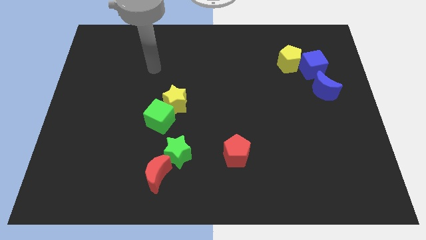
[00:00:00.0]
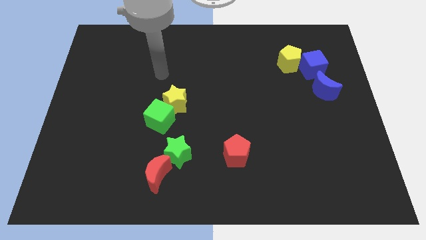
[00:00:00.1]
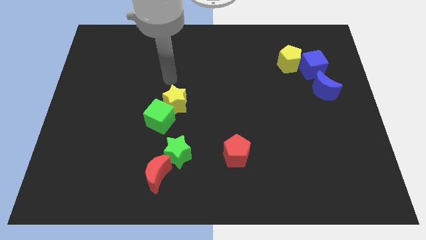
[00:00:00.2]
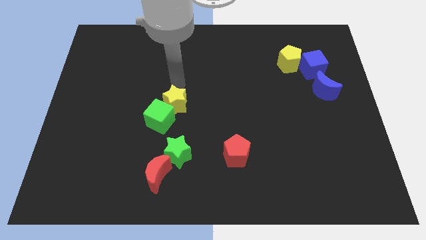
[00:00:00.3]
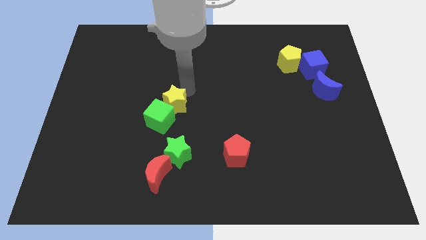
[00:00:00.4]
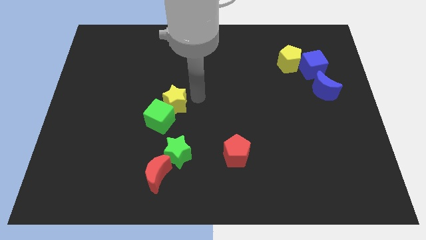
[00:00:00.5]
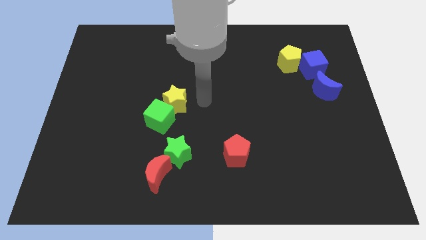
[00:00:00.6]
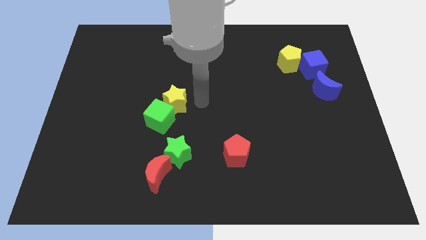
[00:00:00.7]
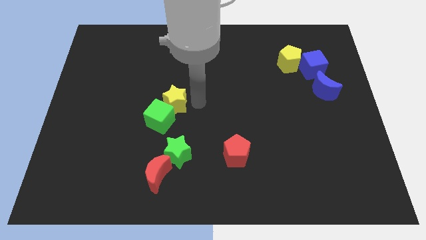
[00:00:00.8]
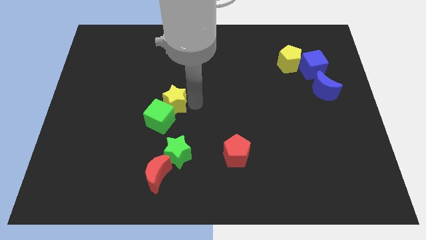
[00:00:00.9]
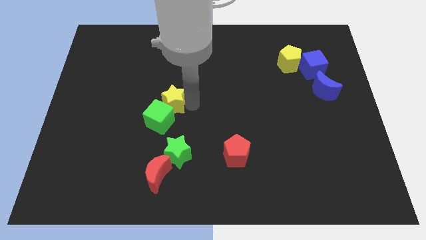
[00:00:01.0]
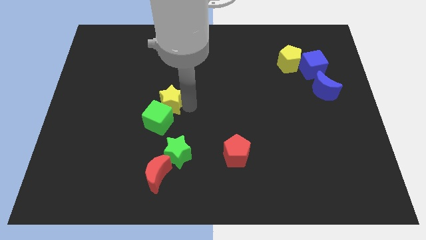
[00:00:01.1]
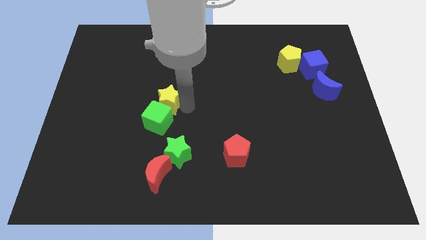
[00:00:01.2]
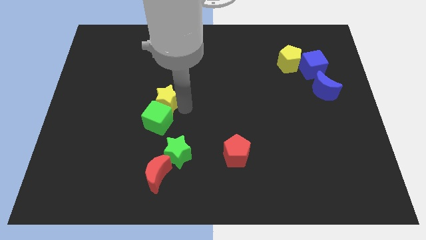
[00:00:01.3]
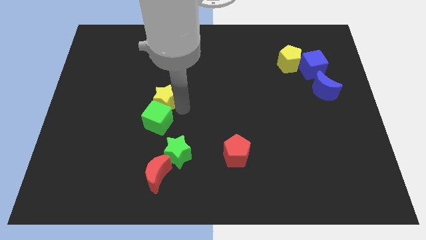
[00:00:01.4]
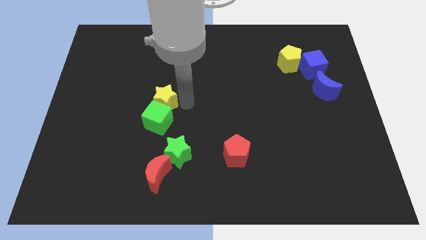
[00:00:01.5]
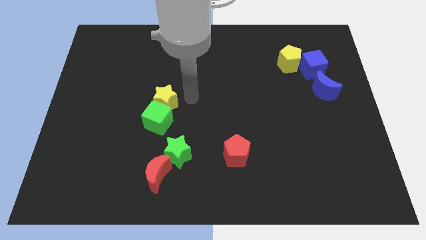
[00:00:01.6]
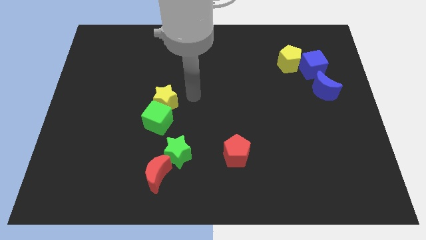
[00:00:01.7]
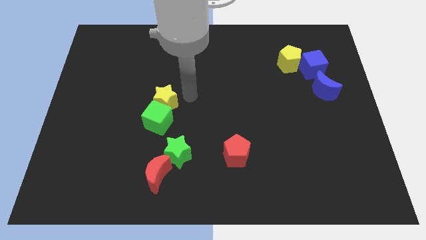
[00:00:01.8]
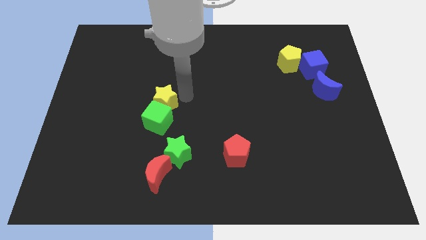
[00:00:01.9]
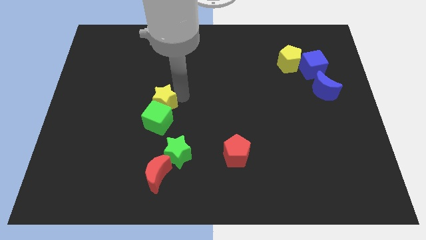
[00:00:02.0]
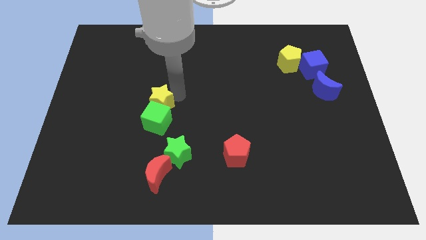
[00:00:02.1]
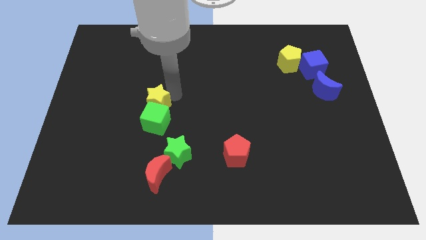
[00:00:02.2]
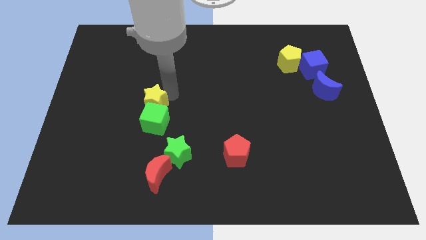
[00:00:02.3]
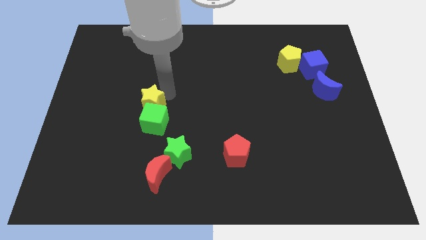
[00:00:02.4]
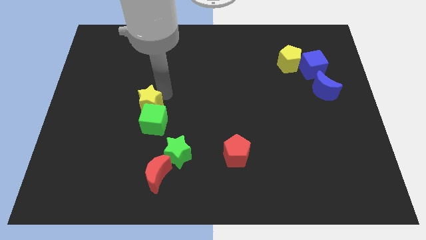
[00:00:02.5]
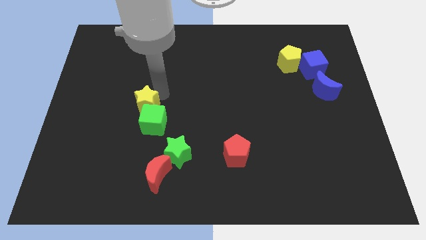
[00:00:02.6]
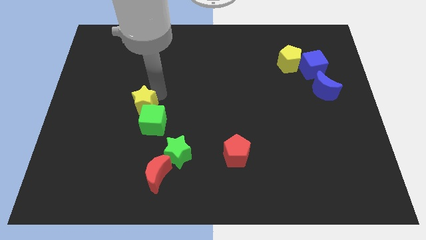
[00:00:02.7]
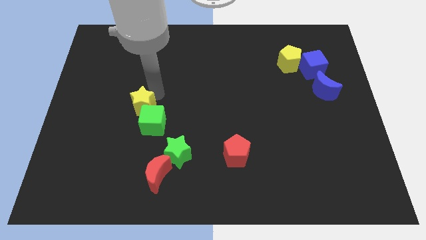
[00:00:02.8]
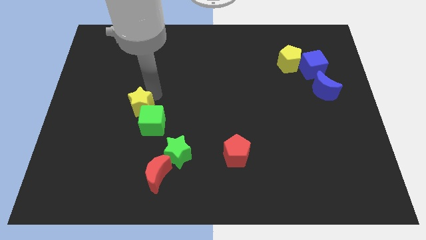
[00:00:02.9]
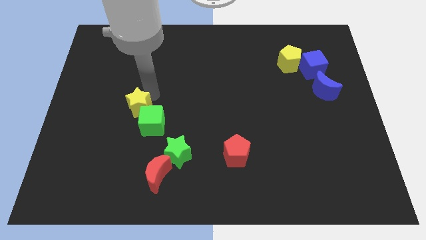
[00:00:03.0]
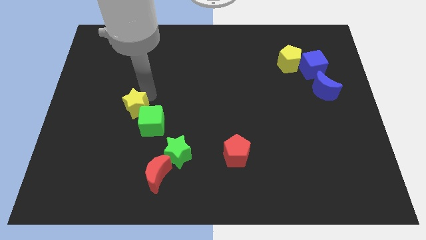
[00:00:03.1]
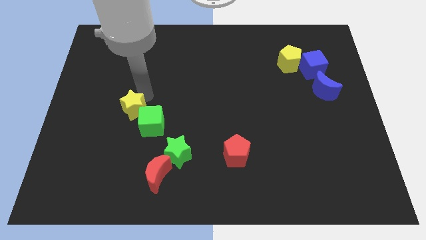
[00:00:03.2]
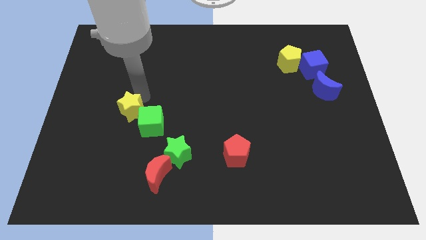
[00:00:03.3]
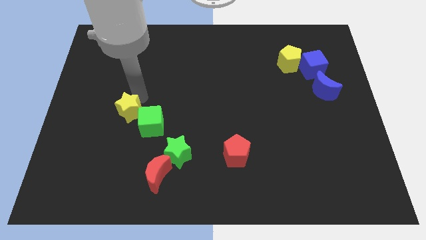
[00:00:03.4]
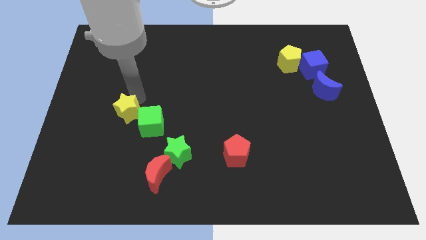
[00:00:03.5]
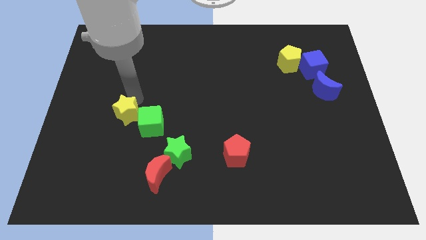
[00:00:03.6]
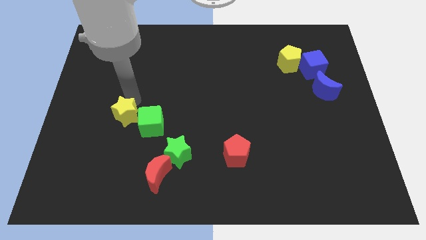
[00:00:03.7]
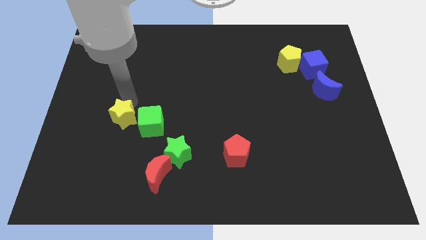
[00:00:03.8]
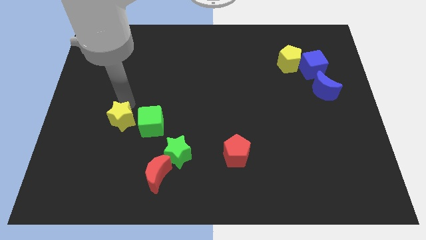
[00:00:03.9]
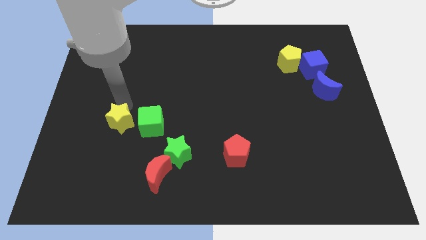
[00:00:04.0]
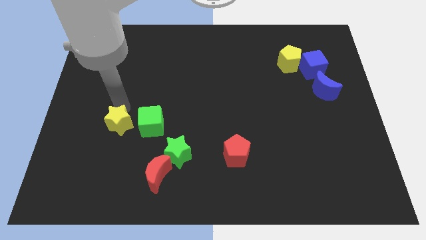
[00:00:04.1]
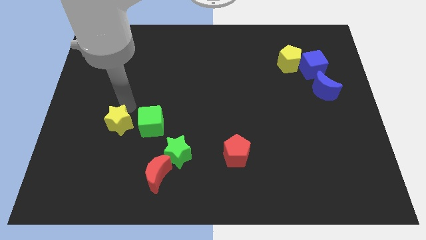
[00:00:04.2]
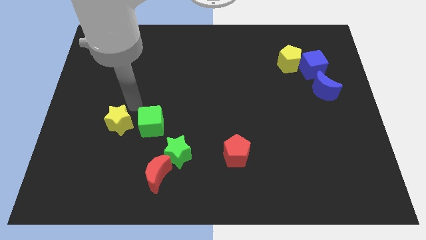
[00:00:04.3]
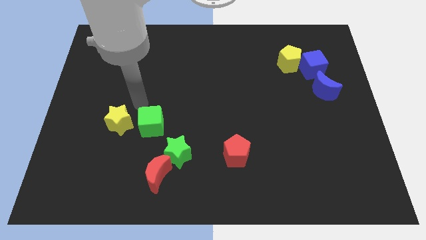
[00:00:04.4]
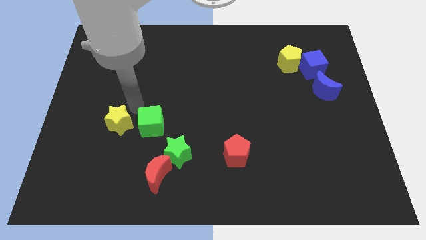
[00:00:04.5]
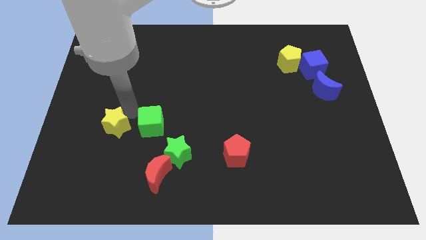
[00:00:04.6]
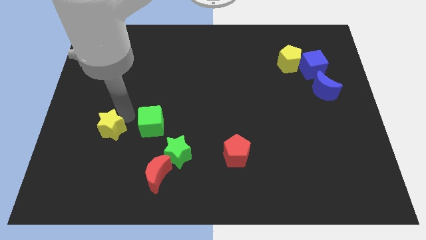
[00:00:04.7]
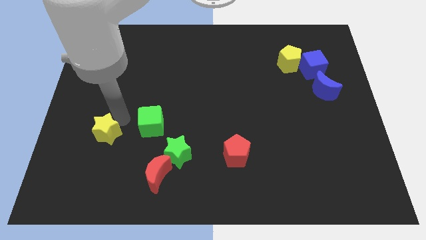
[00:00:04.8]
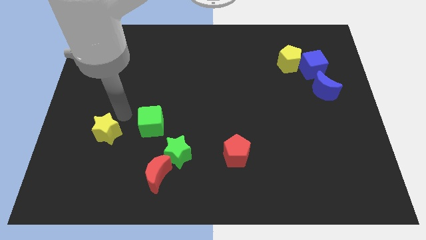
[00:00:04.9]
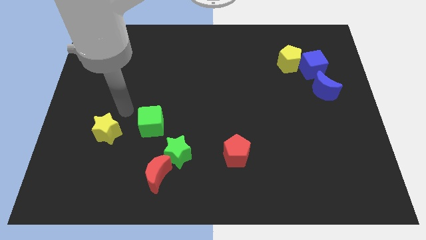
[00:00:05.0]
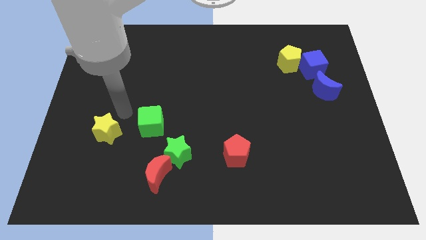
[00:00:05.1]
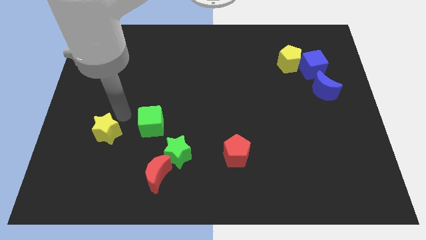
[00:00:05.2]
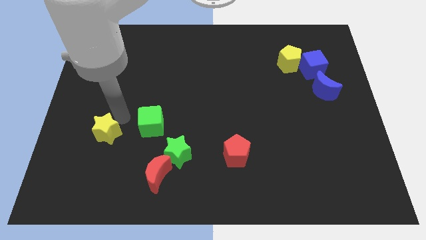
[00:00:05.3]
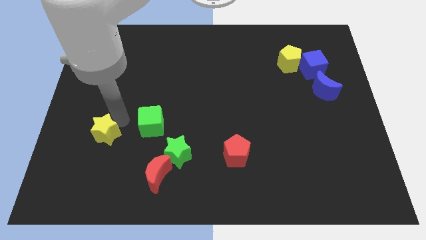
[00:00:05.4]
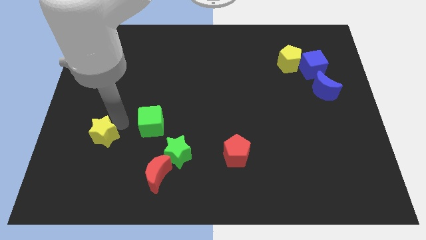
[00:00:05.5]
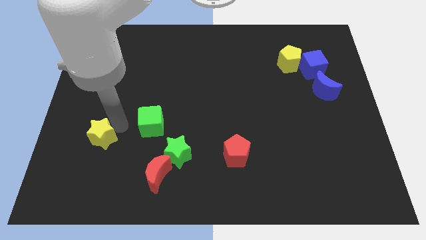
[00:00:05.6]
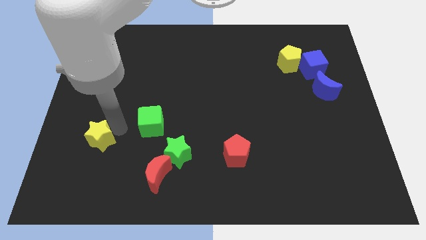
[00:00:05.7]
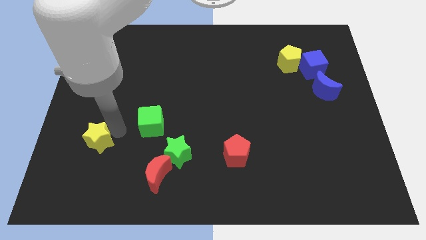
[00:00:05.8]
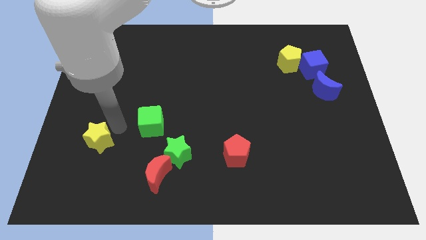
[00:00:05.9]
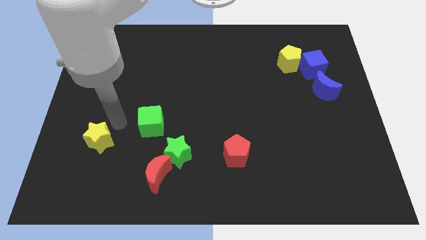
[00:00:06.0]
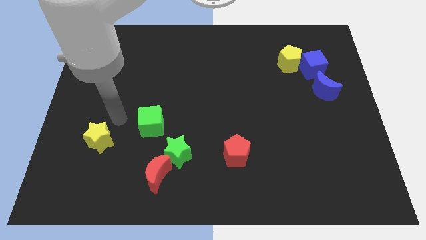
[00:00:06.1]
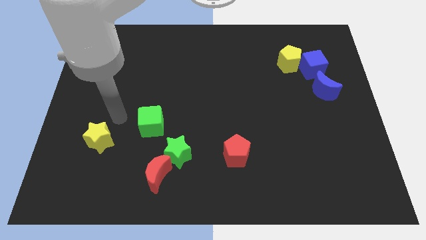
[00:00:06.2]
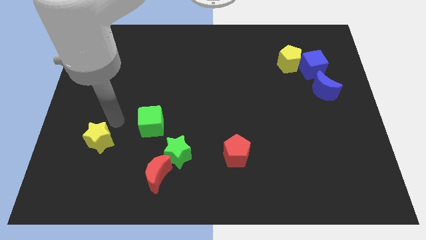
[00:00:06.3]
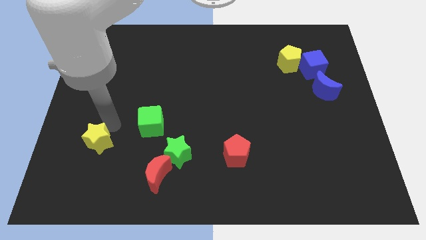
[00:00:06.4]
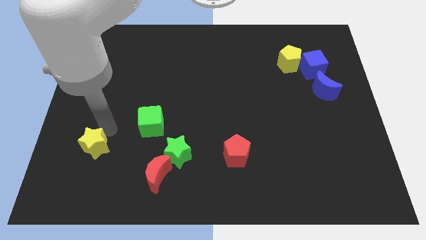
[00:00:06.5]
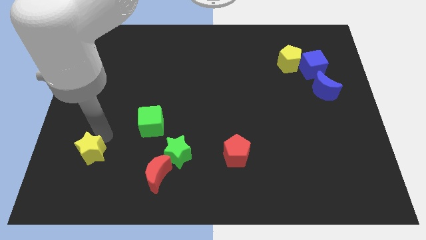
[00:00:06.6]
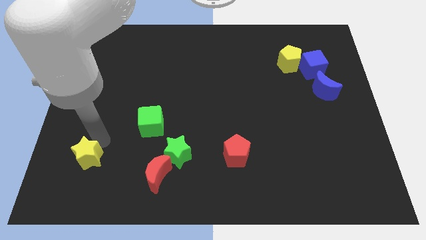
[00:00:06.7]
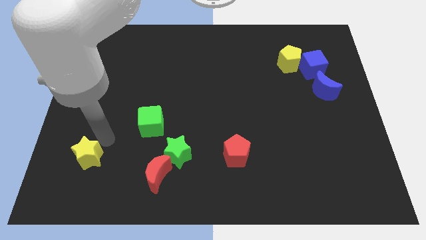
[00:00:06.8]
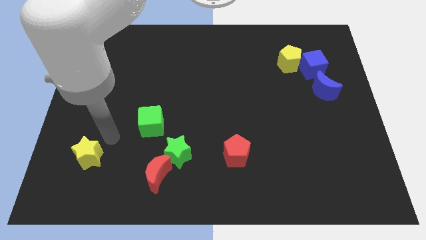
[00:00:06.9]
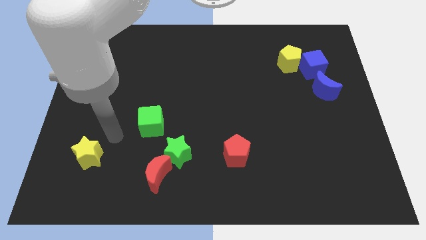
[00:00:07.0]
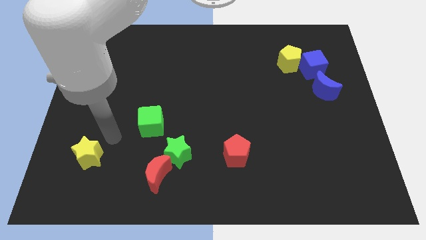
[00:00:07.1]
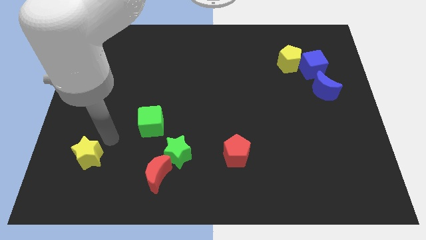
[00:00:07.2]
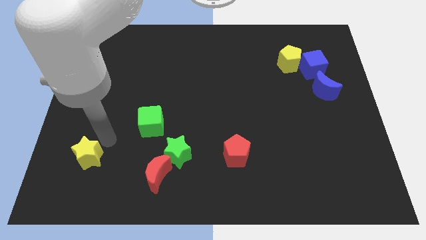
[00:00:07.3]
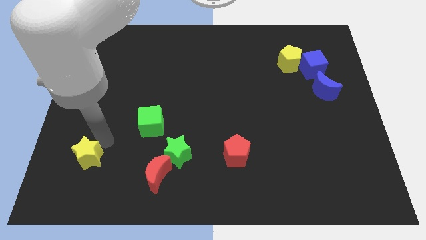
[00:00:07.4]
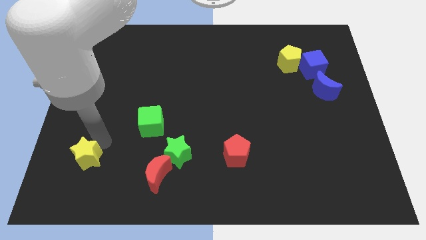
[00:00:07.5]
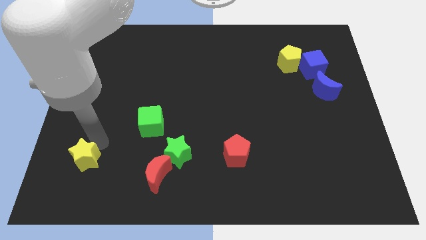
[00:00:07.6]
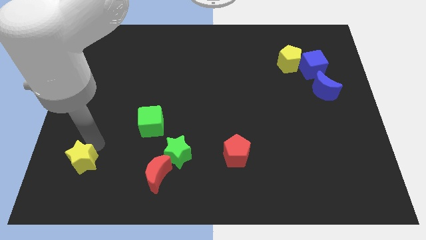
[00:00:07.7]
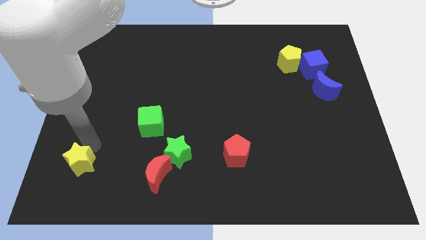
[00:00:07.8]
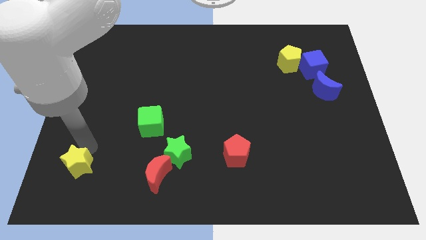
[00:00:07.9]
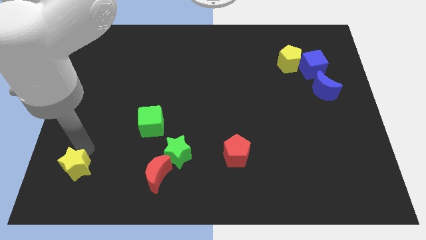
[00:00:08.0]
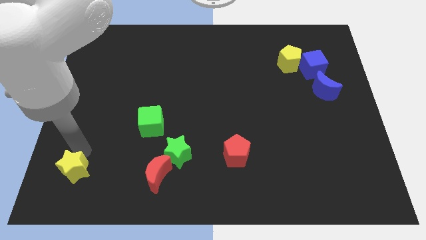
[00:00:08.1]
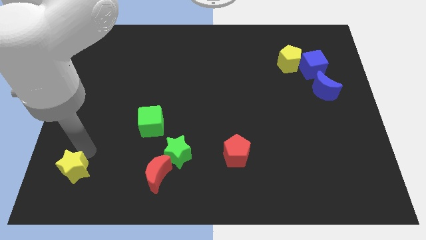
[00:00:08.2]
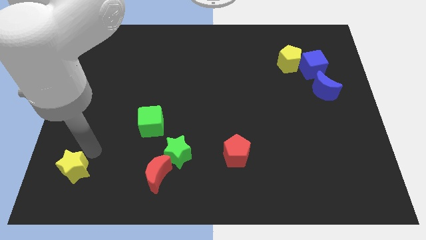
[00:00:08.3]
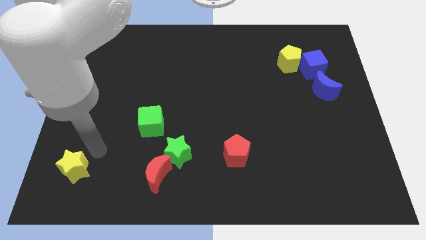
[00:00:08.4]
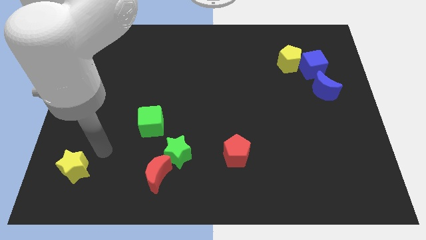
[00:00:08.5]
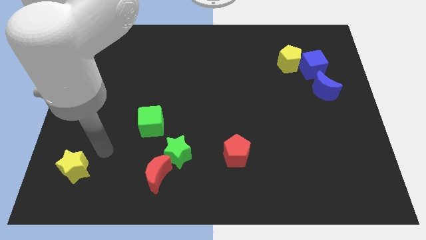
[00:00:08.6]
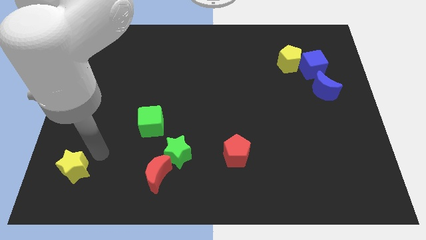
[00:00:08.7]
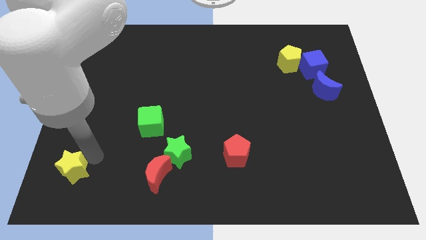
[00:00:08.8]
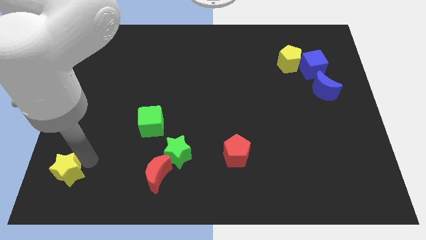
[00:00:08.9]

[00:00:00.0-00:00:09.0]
slide the yellow star to the bottom left corner
